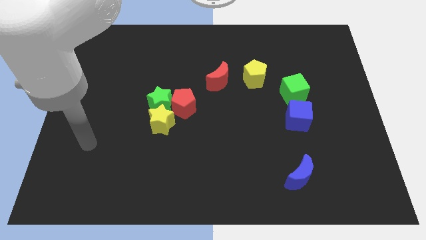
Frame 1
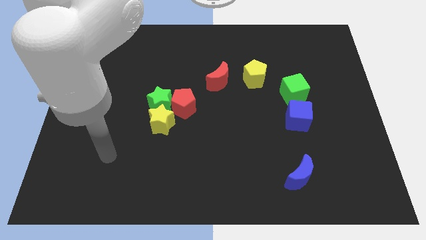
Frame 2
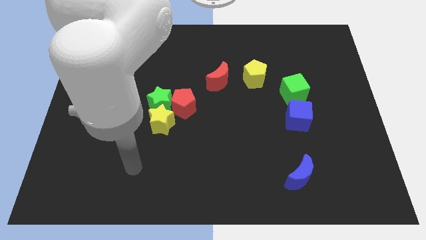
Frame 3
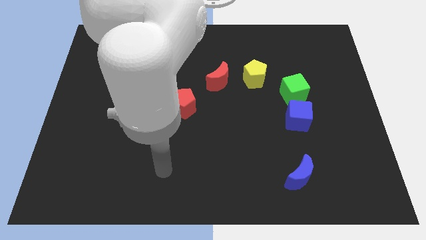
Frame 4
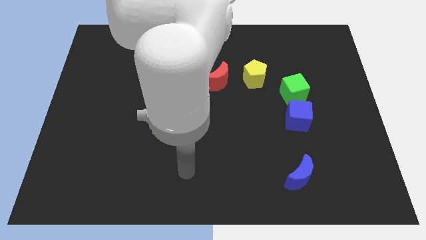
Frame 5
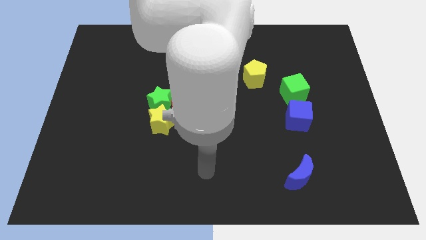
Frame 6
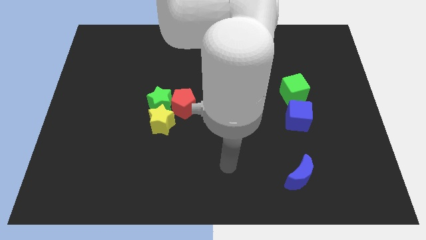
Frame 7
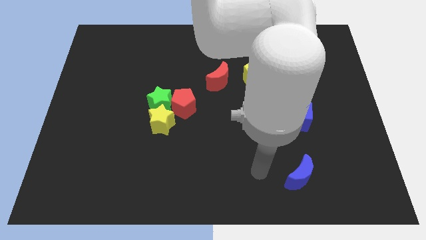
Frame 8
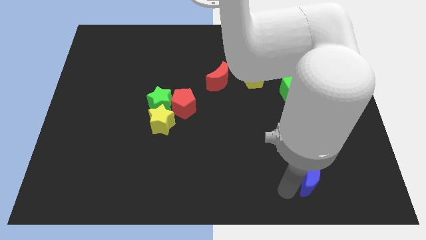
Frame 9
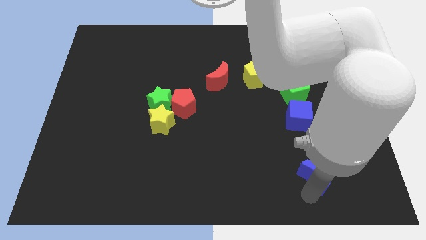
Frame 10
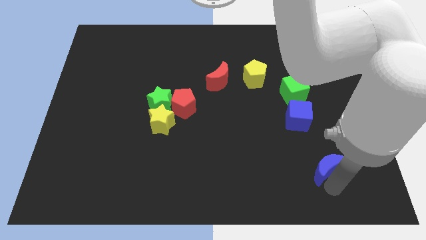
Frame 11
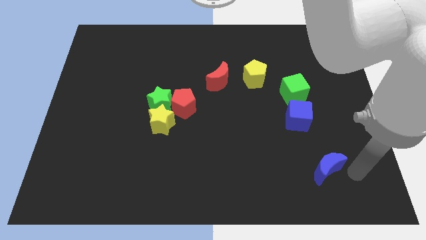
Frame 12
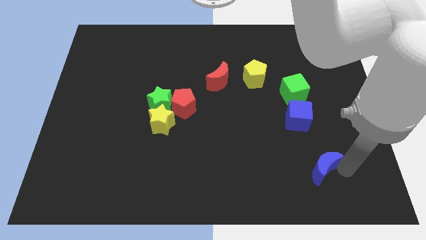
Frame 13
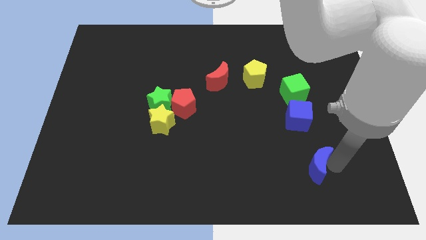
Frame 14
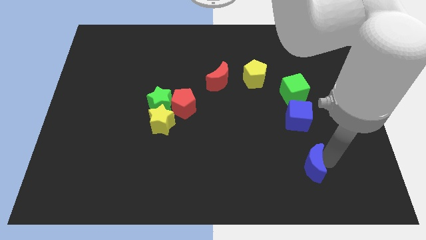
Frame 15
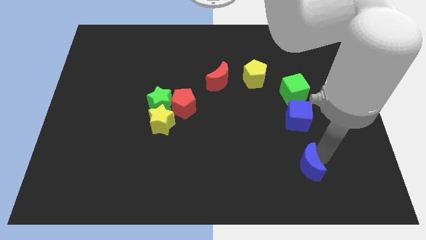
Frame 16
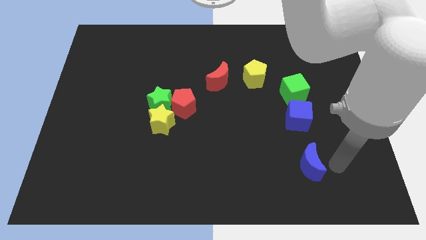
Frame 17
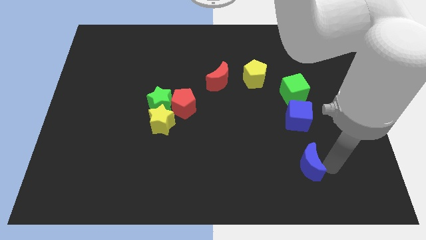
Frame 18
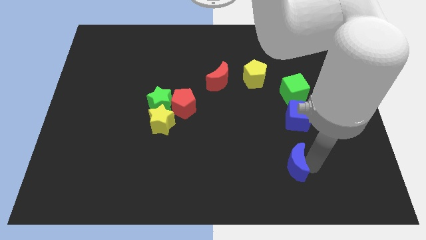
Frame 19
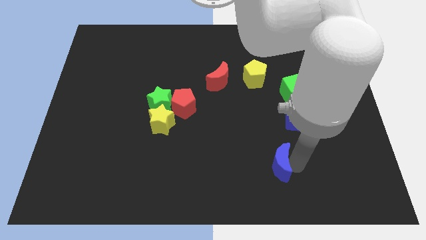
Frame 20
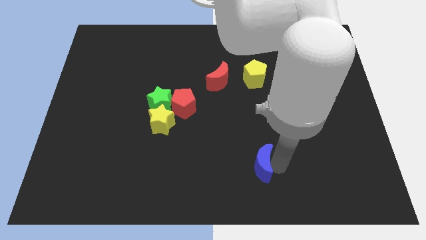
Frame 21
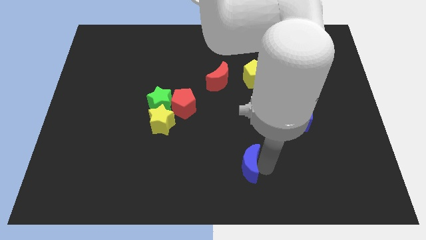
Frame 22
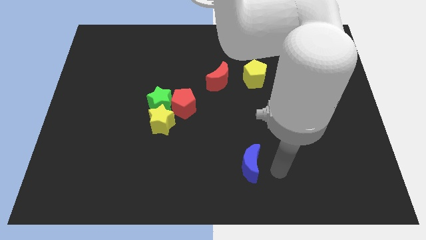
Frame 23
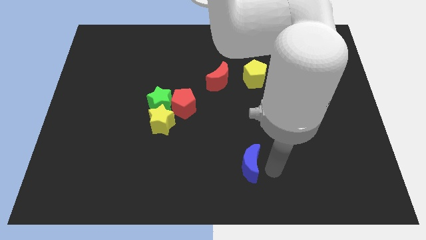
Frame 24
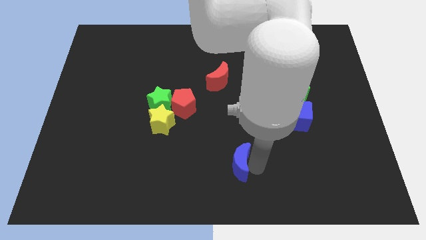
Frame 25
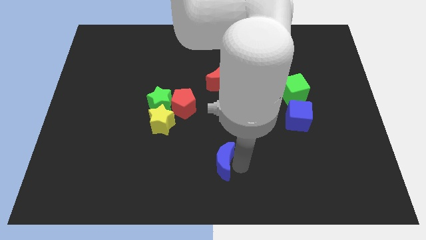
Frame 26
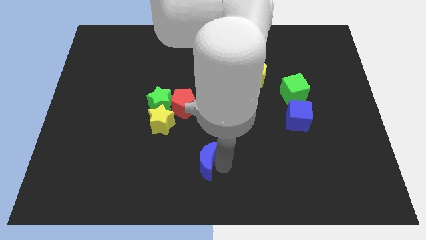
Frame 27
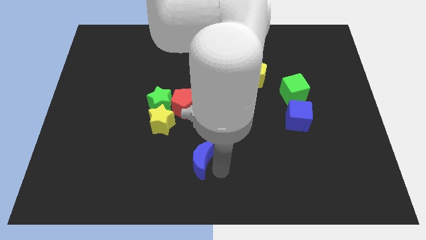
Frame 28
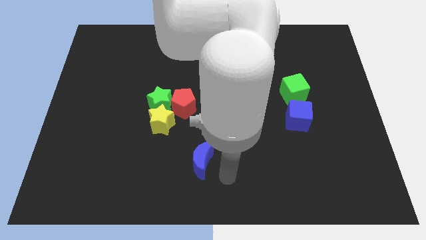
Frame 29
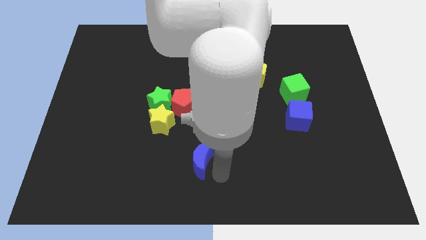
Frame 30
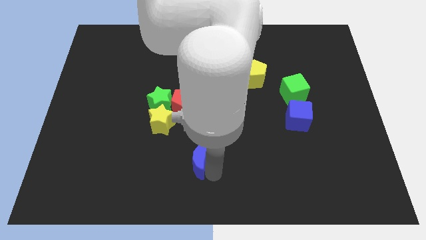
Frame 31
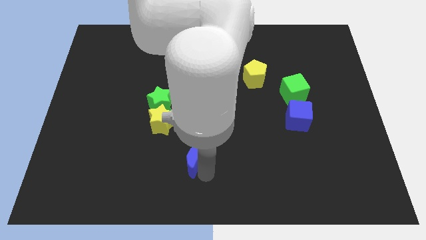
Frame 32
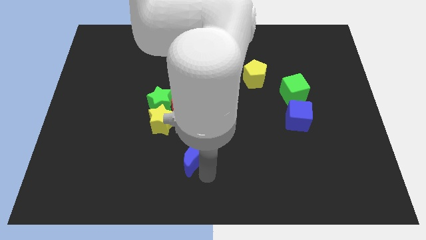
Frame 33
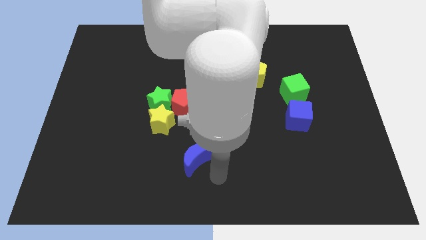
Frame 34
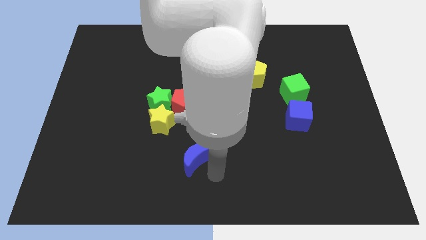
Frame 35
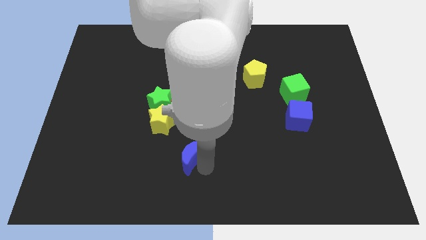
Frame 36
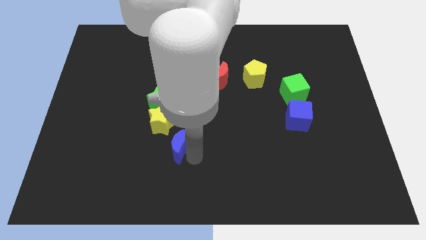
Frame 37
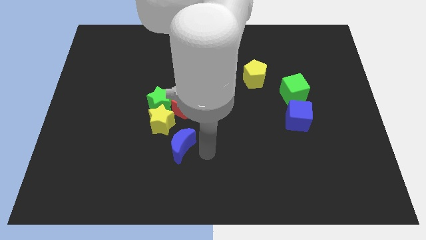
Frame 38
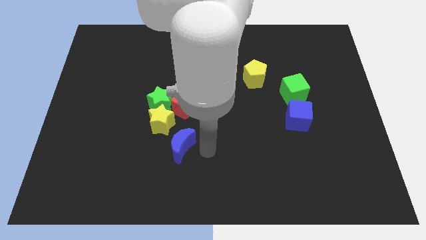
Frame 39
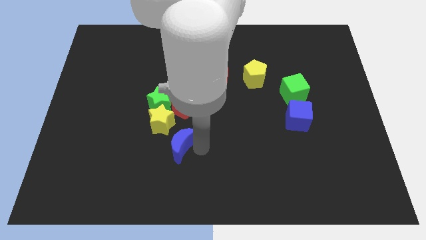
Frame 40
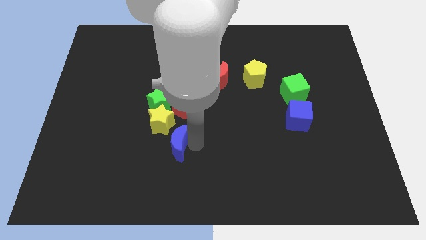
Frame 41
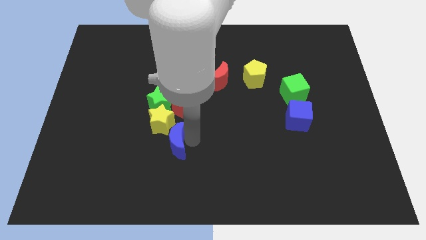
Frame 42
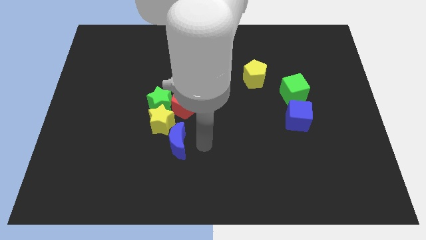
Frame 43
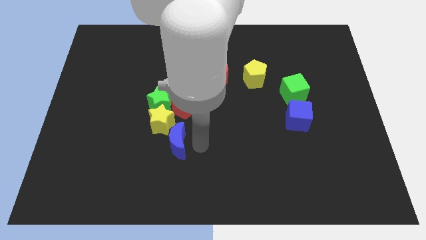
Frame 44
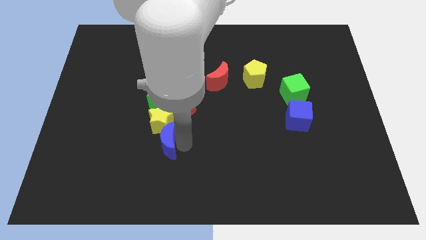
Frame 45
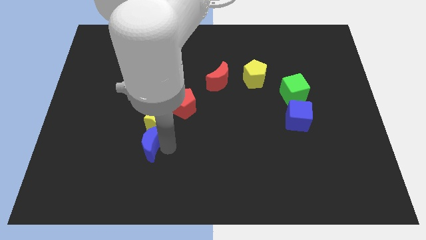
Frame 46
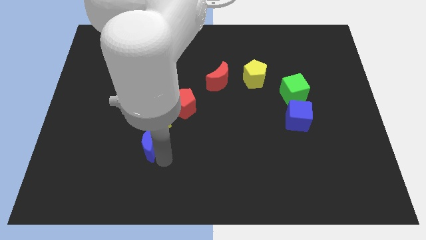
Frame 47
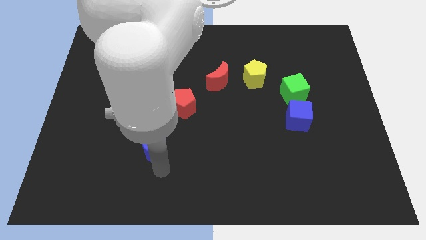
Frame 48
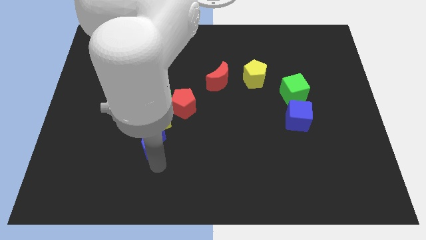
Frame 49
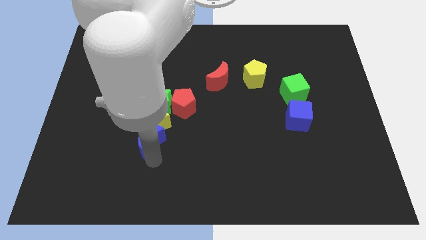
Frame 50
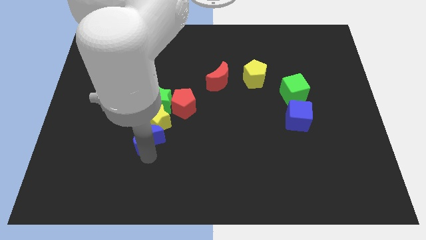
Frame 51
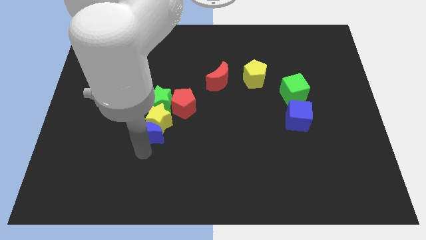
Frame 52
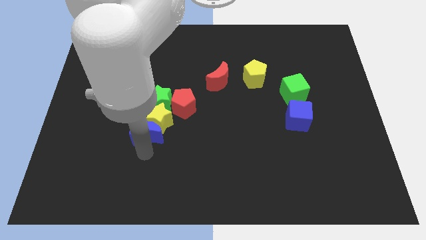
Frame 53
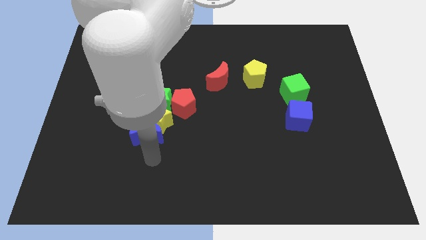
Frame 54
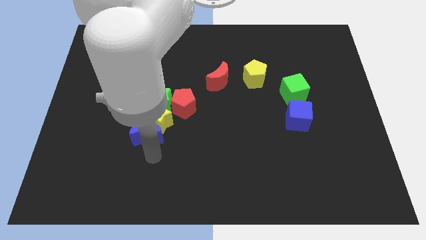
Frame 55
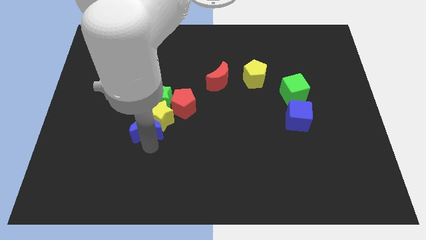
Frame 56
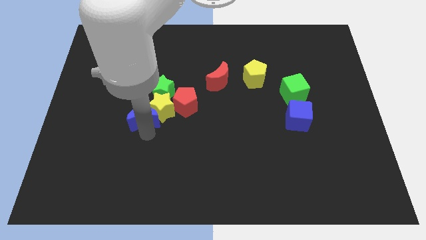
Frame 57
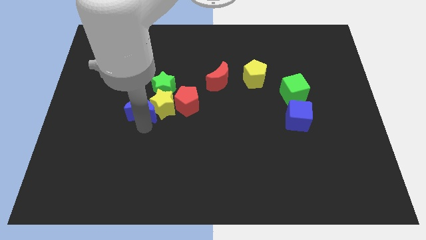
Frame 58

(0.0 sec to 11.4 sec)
put the blue moon to the top left side of the yellow star

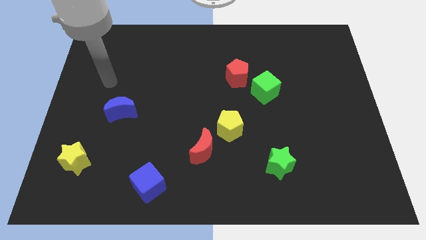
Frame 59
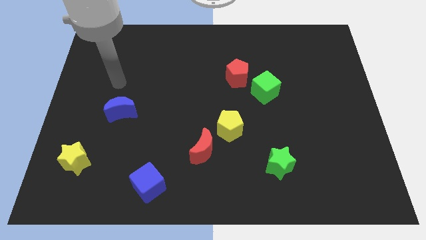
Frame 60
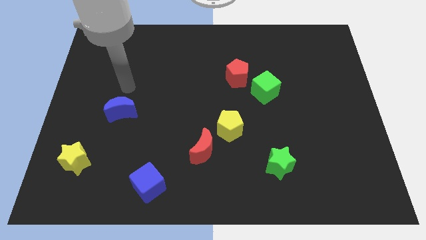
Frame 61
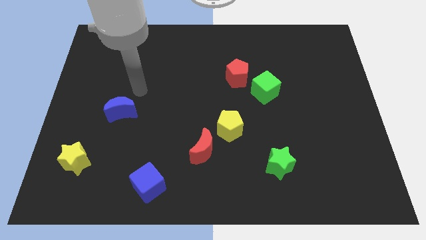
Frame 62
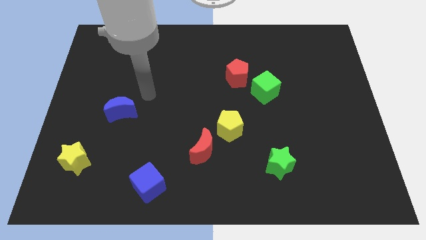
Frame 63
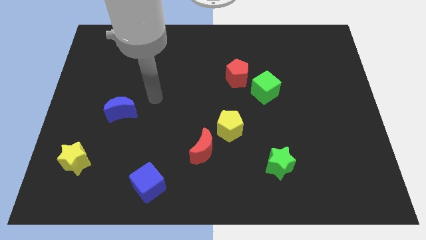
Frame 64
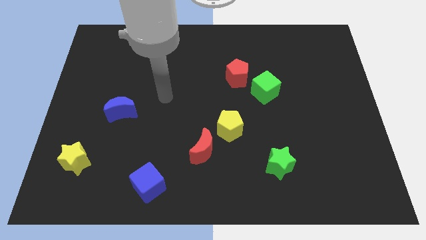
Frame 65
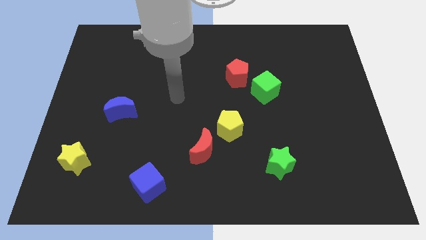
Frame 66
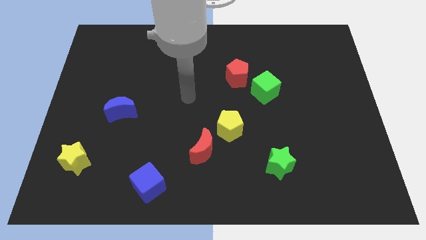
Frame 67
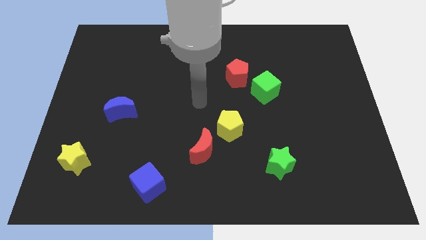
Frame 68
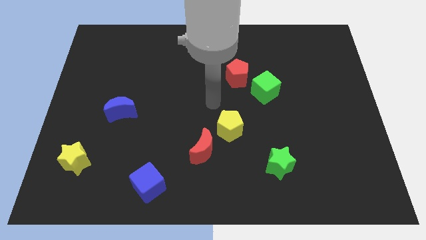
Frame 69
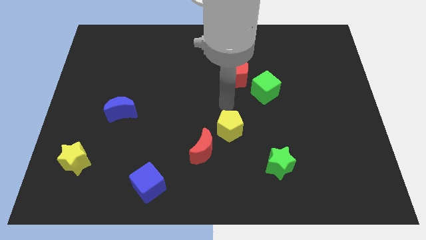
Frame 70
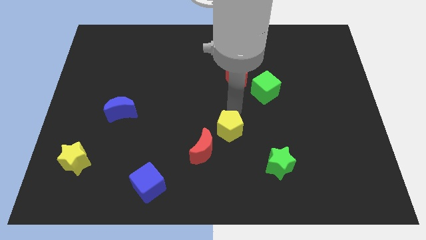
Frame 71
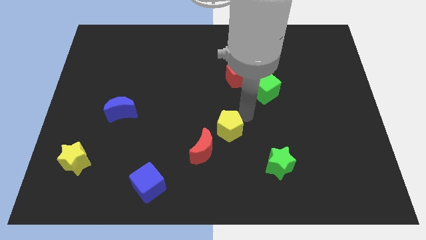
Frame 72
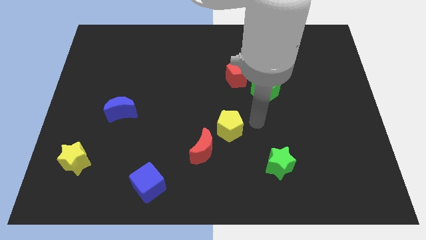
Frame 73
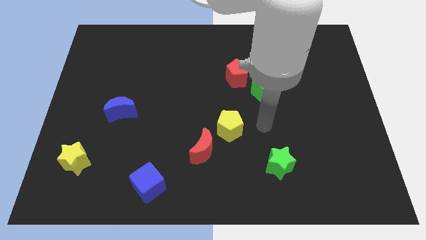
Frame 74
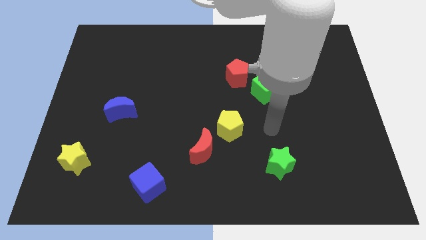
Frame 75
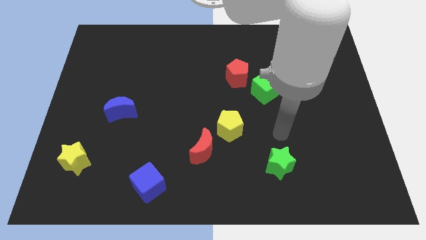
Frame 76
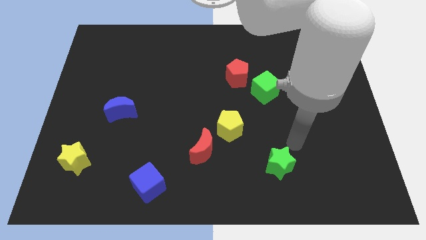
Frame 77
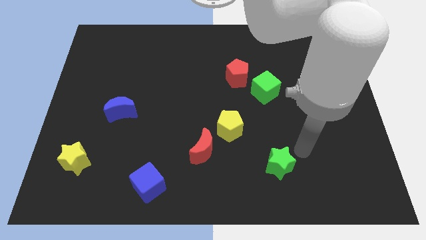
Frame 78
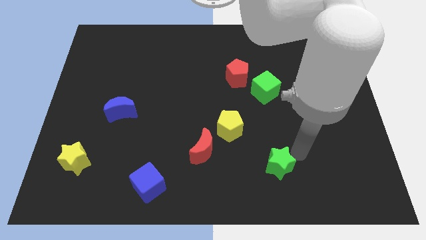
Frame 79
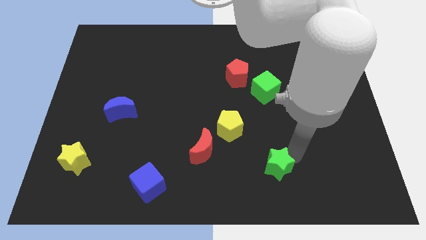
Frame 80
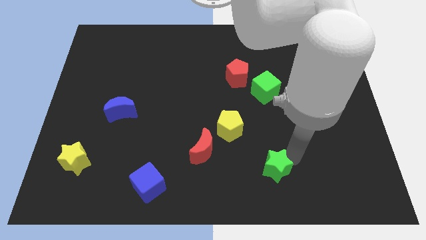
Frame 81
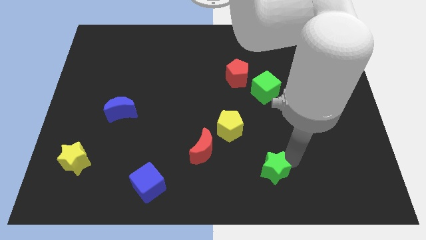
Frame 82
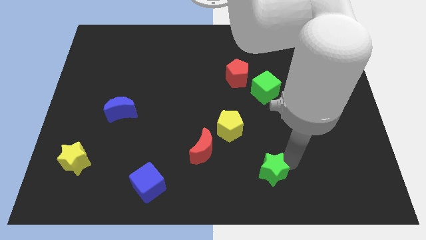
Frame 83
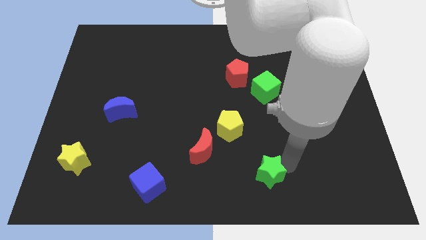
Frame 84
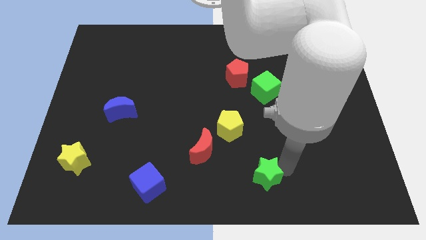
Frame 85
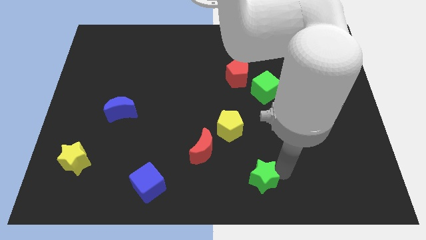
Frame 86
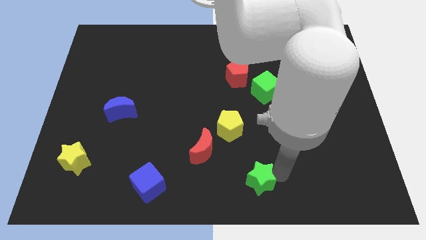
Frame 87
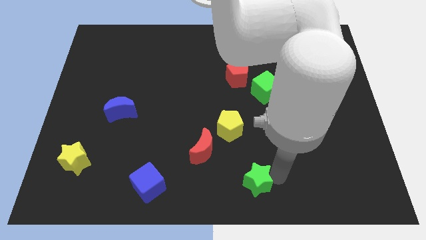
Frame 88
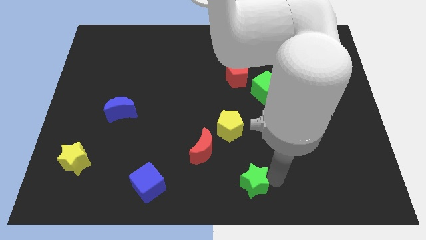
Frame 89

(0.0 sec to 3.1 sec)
move the green star to the bottom right of the red moon
